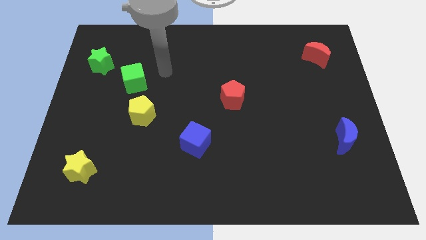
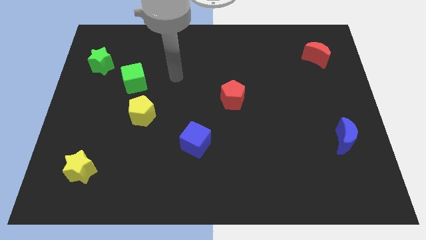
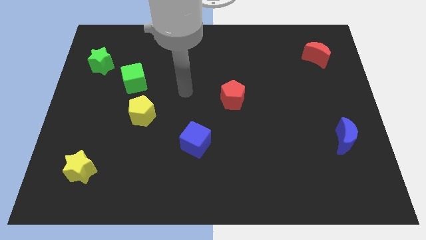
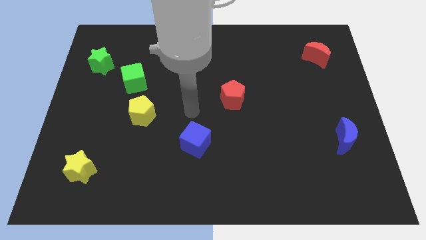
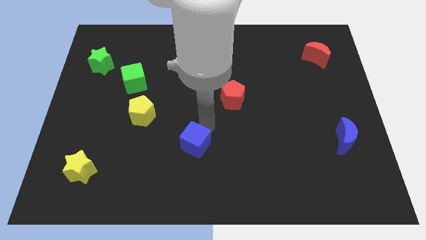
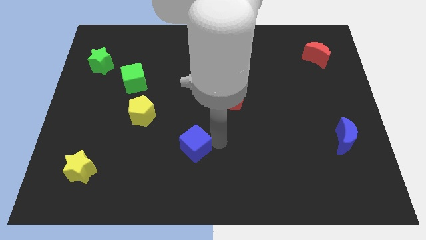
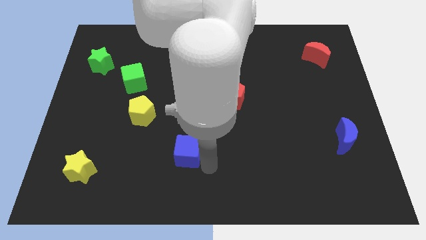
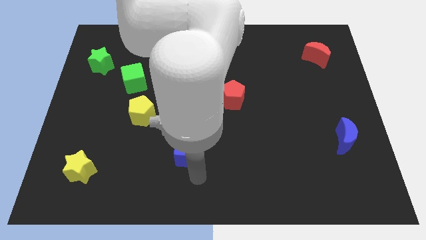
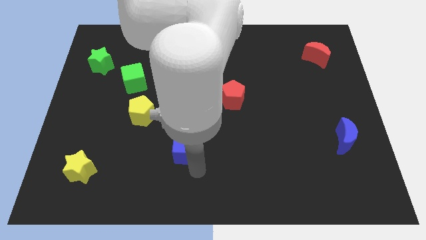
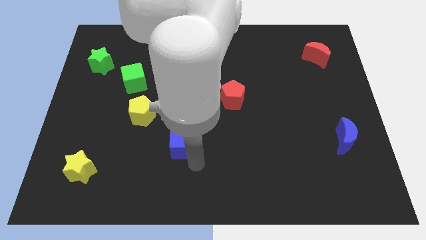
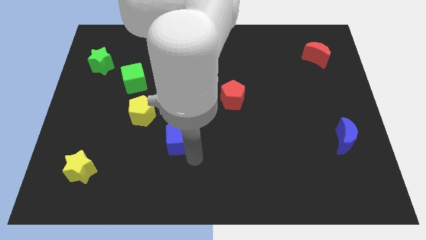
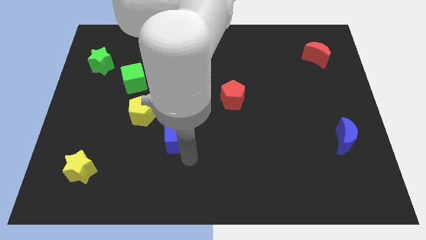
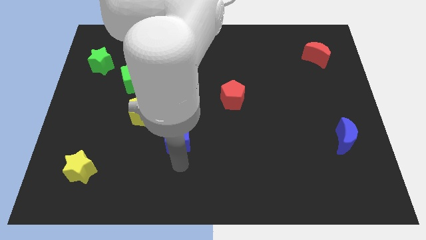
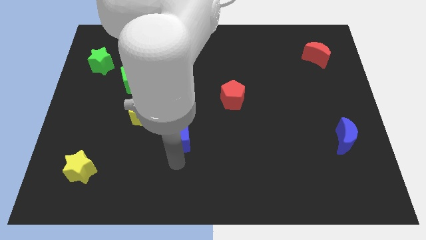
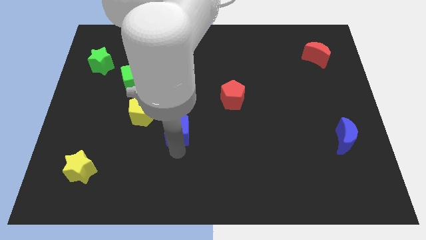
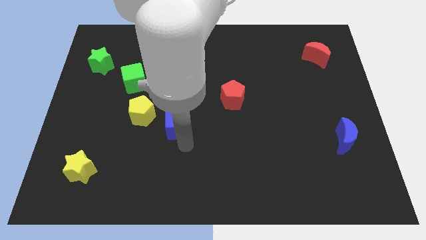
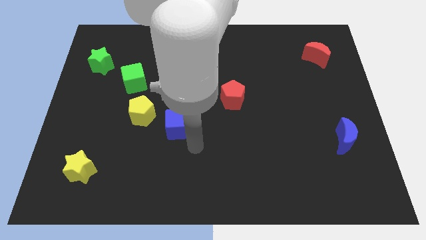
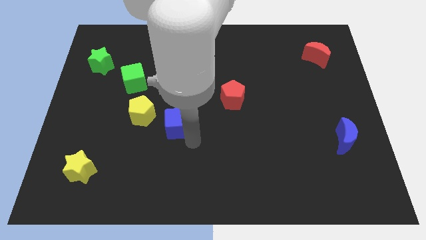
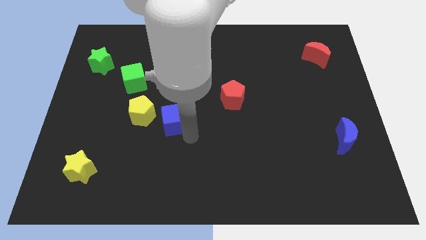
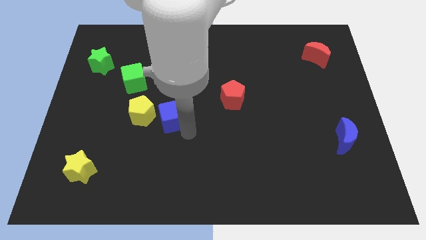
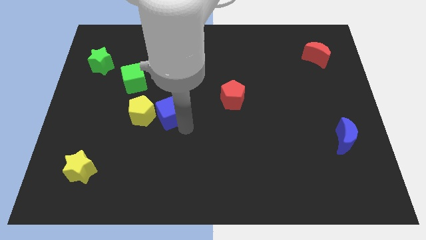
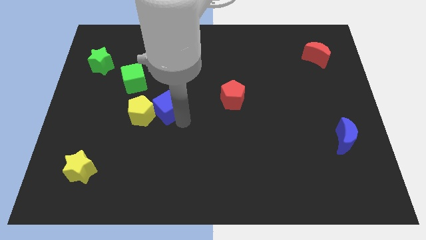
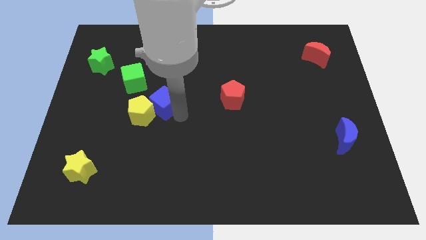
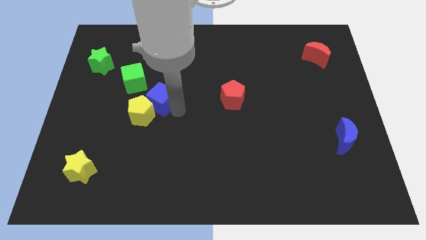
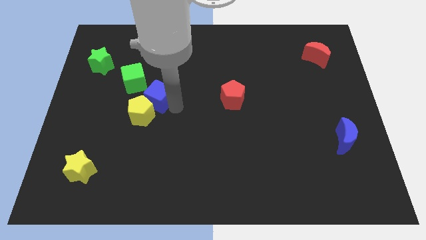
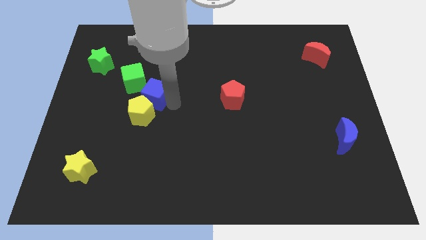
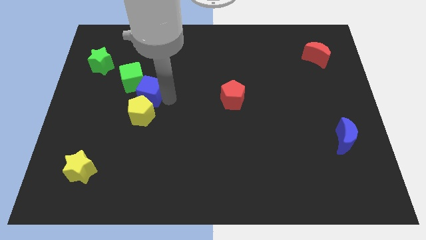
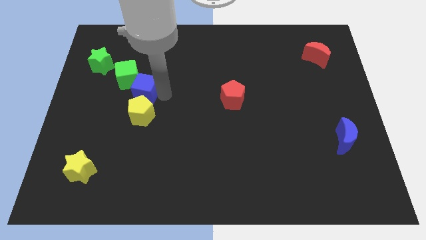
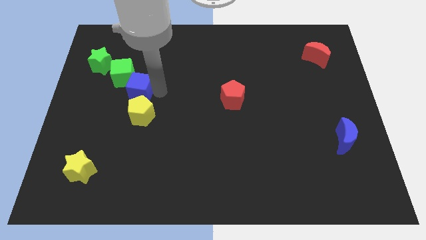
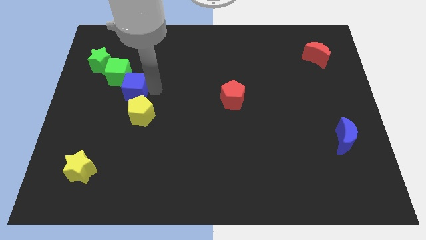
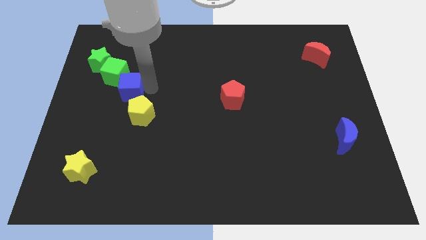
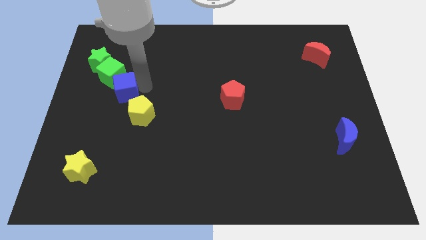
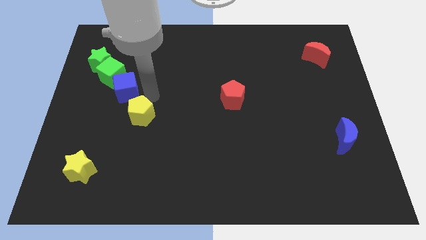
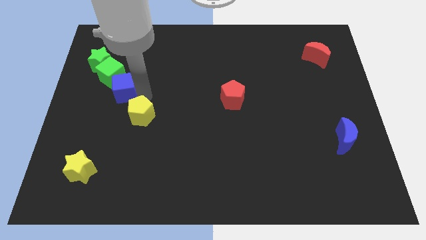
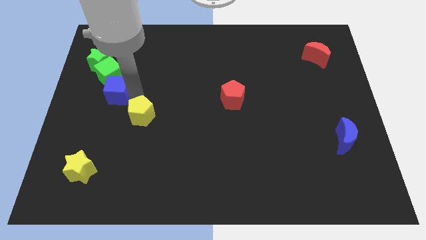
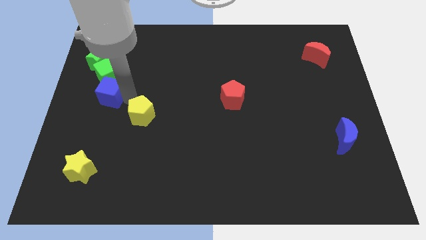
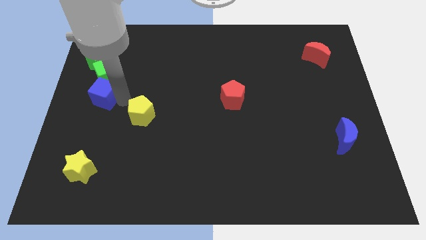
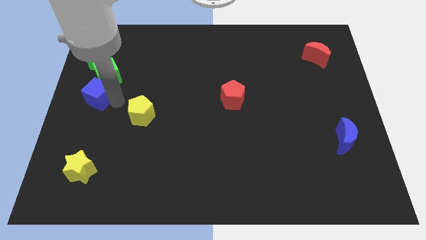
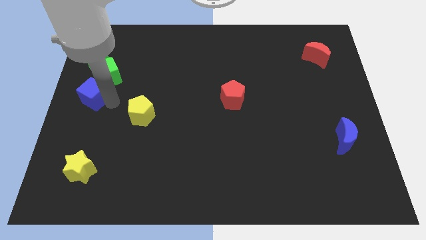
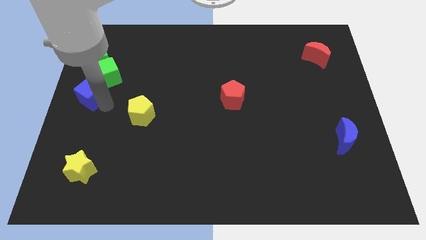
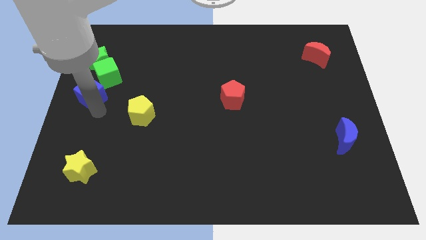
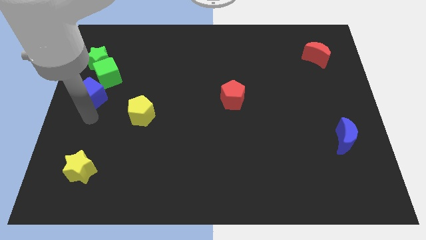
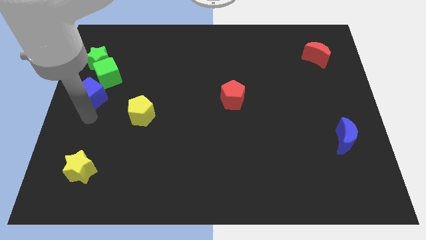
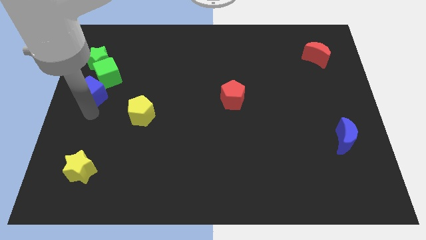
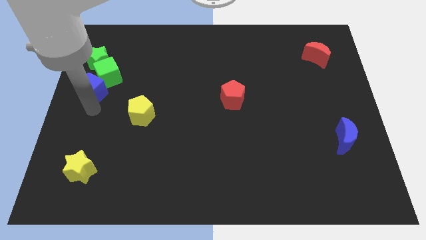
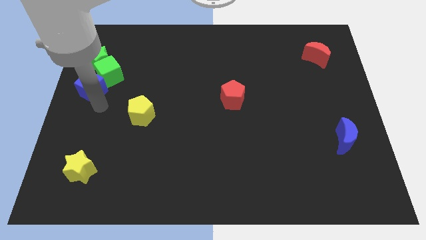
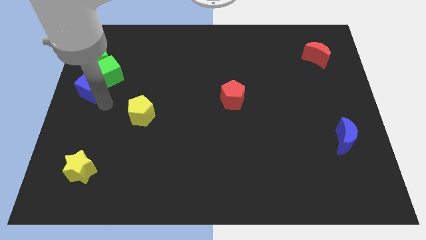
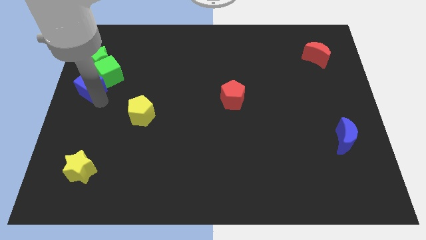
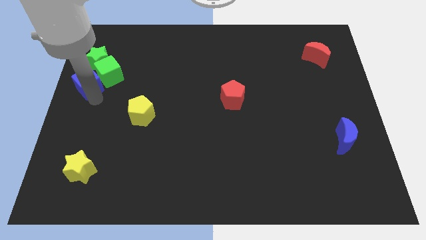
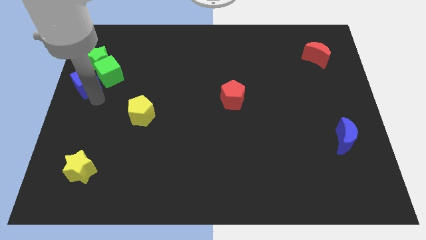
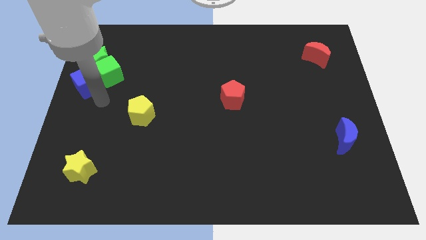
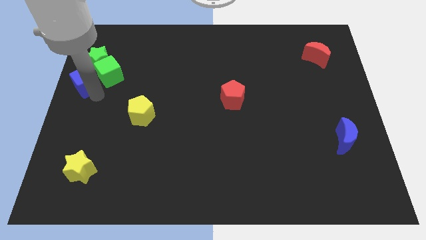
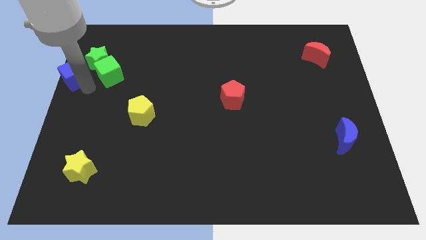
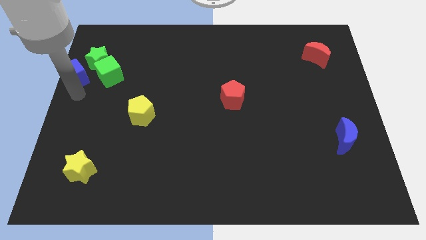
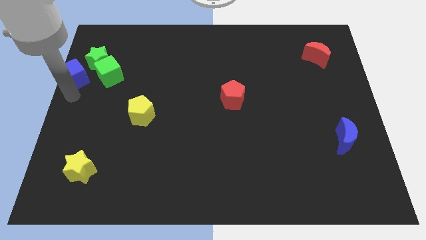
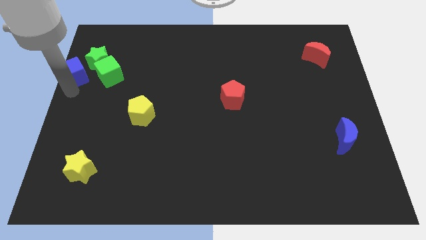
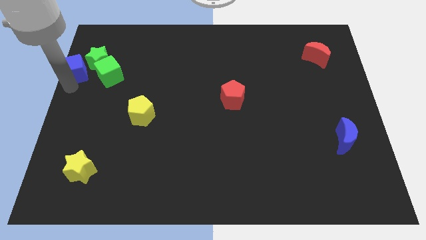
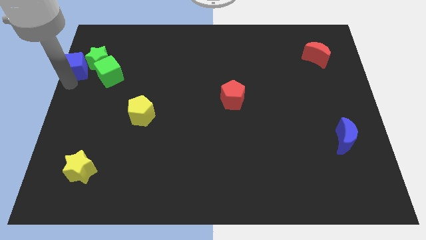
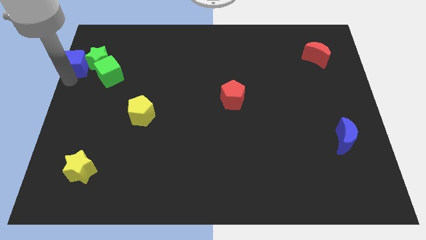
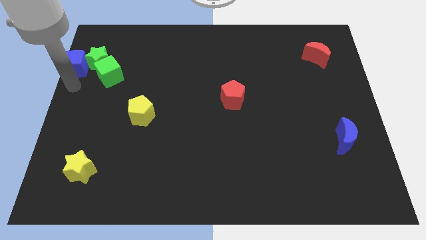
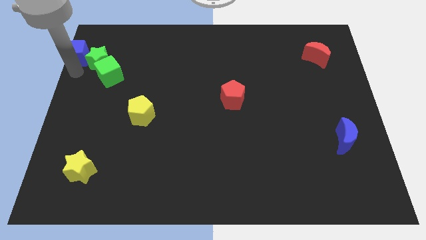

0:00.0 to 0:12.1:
put the blue cube to the top left corner
